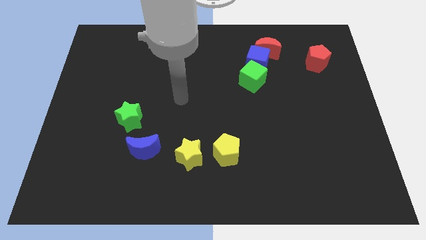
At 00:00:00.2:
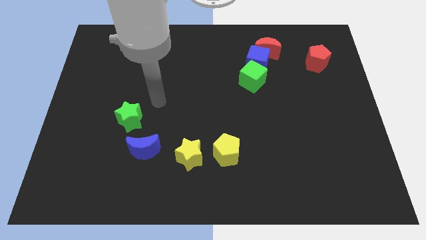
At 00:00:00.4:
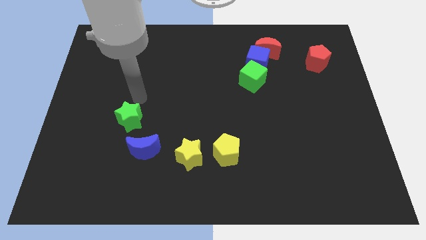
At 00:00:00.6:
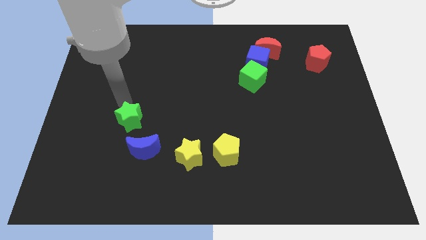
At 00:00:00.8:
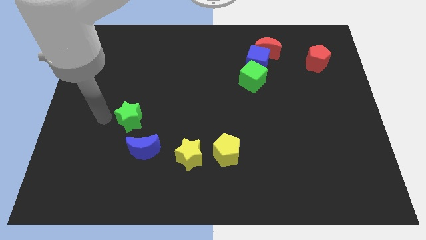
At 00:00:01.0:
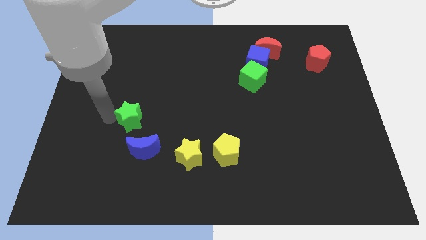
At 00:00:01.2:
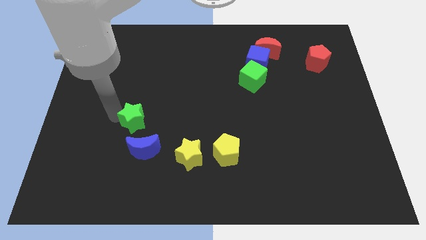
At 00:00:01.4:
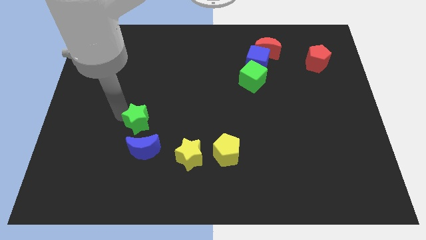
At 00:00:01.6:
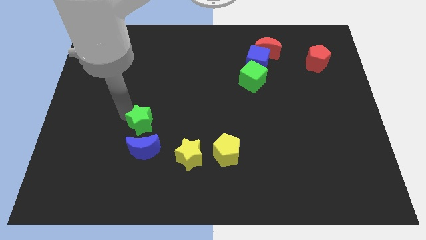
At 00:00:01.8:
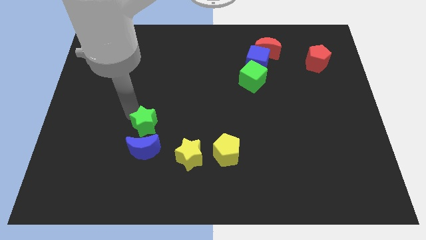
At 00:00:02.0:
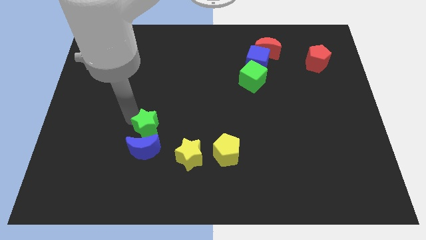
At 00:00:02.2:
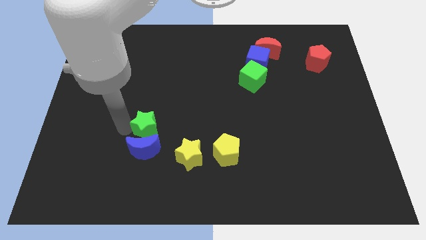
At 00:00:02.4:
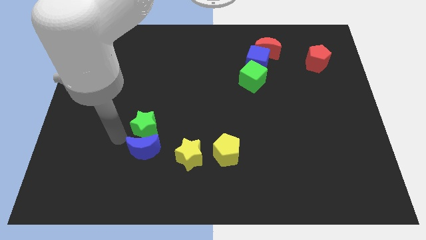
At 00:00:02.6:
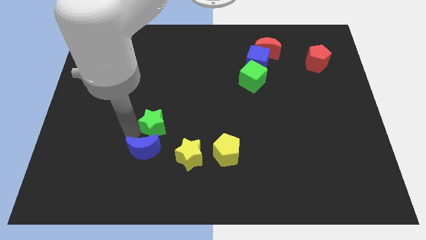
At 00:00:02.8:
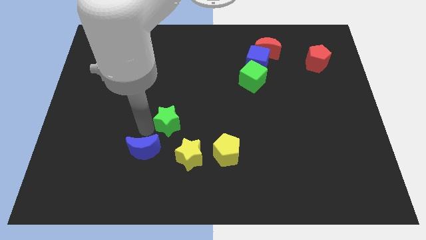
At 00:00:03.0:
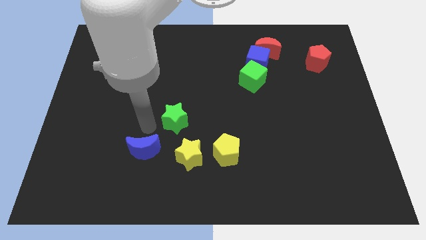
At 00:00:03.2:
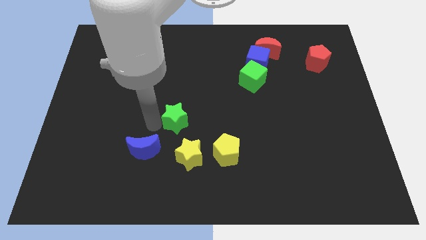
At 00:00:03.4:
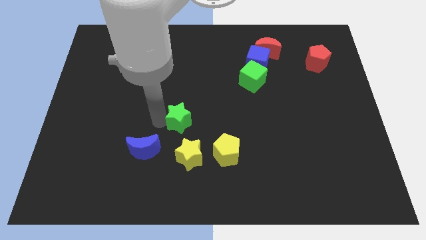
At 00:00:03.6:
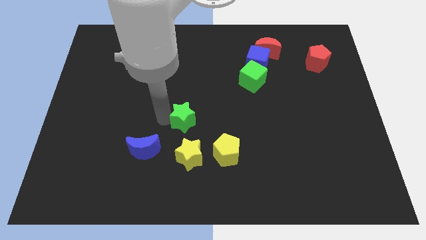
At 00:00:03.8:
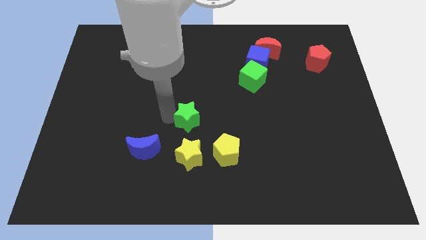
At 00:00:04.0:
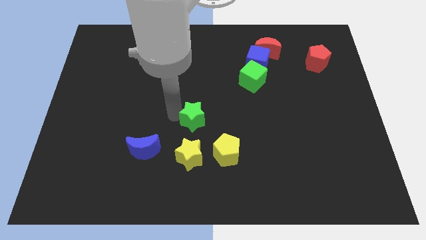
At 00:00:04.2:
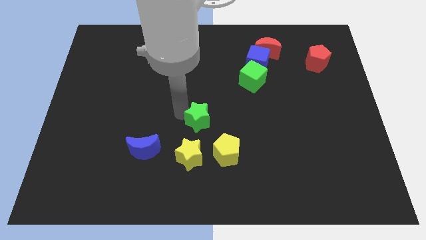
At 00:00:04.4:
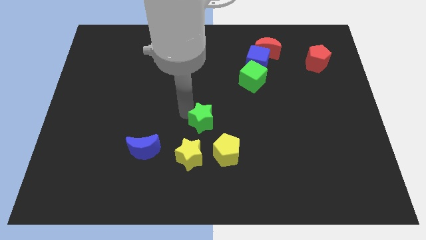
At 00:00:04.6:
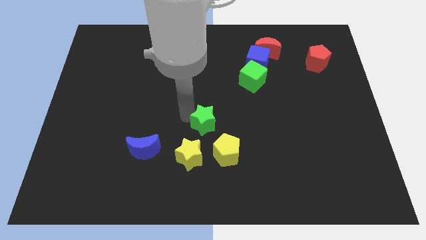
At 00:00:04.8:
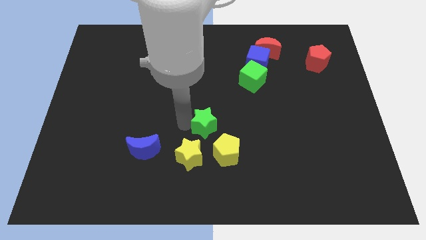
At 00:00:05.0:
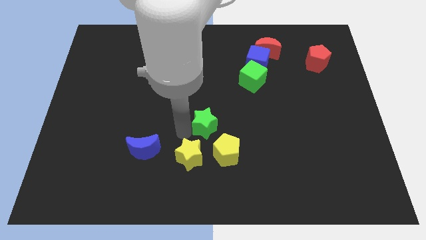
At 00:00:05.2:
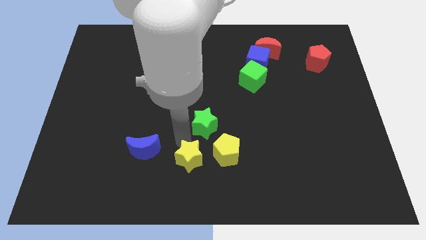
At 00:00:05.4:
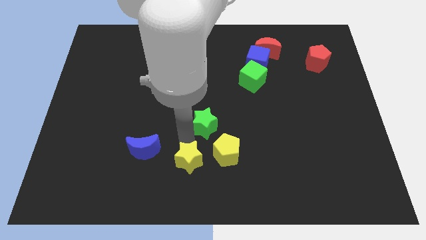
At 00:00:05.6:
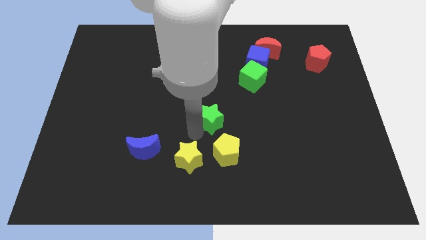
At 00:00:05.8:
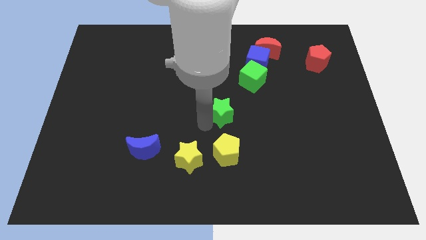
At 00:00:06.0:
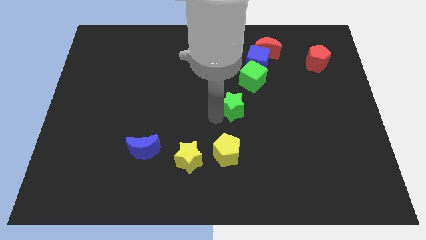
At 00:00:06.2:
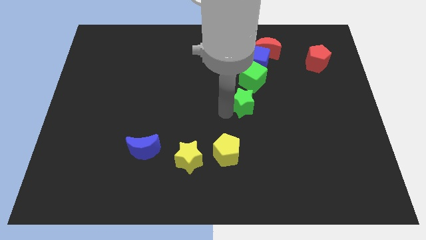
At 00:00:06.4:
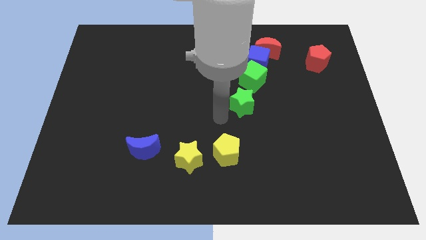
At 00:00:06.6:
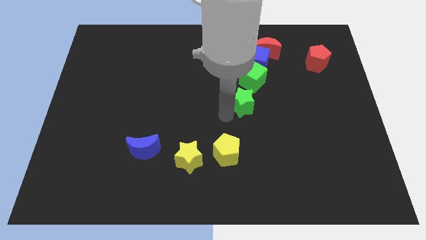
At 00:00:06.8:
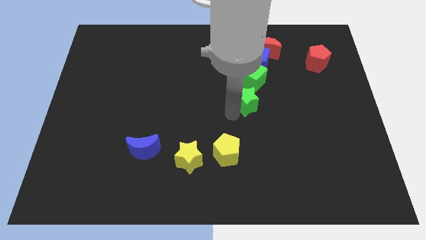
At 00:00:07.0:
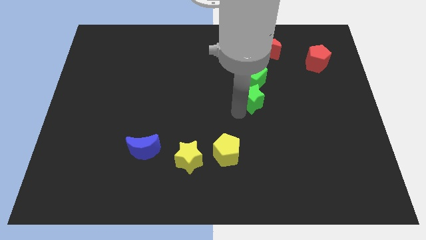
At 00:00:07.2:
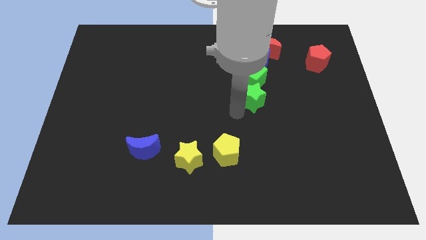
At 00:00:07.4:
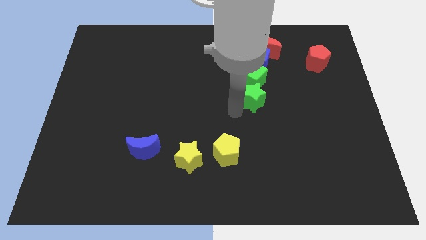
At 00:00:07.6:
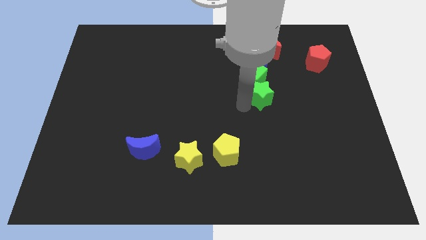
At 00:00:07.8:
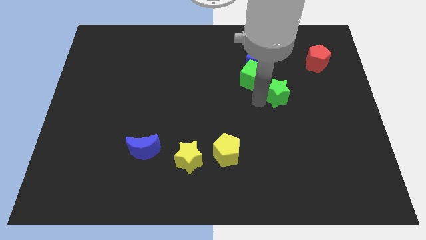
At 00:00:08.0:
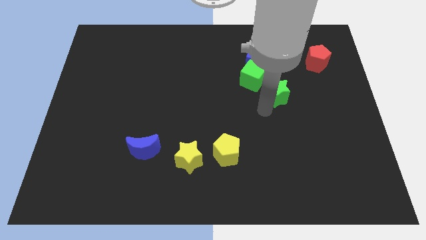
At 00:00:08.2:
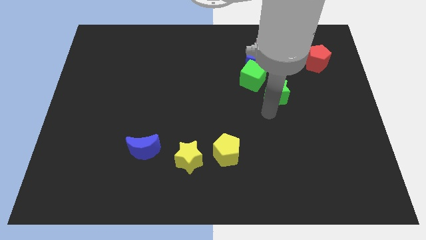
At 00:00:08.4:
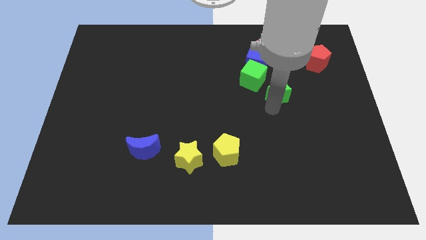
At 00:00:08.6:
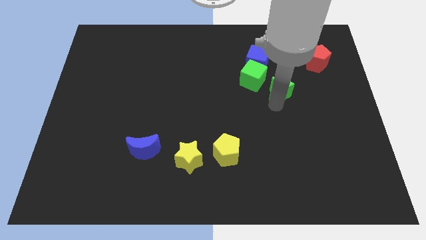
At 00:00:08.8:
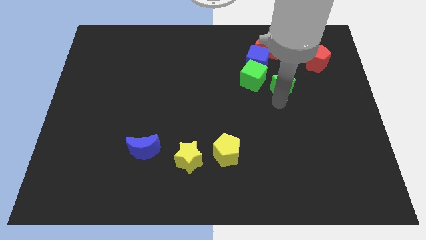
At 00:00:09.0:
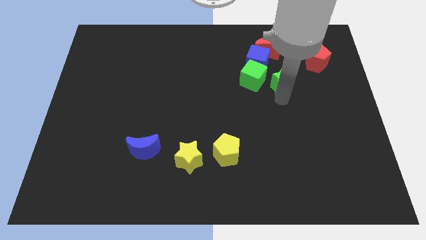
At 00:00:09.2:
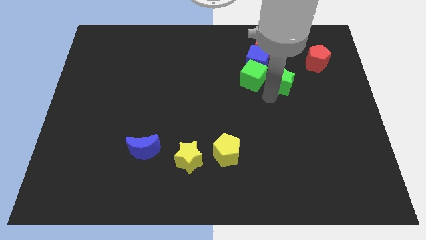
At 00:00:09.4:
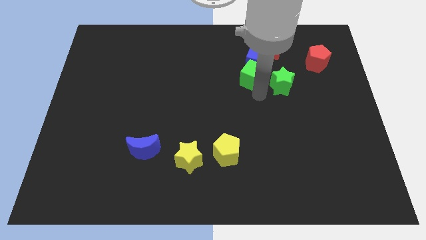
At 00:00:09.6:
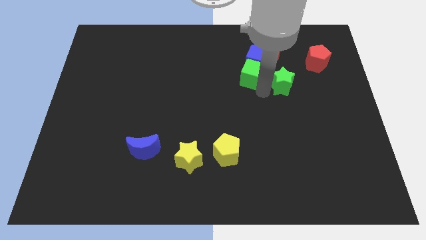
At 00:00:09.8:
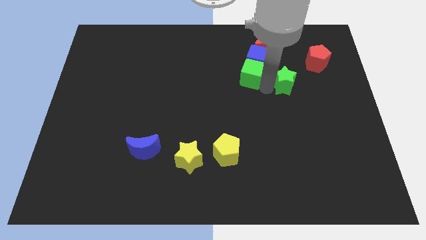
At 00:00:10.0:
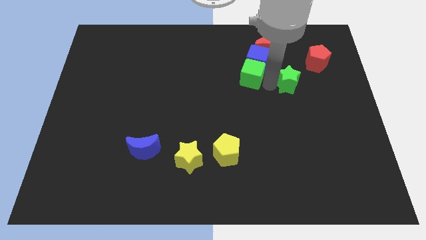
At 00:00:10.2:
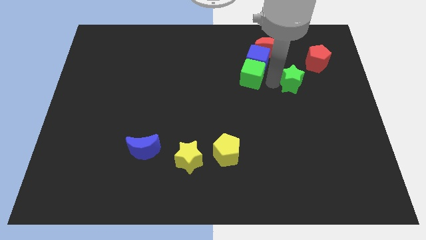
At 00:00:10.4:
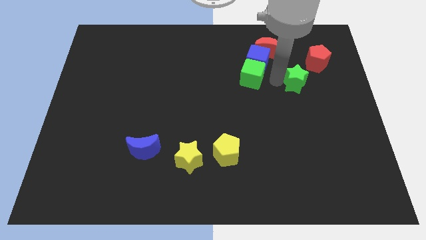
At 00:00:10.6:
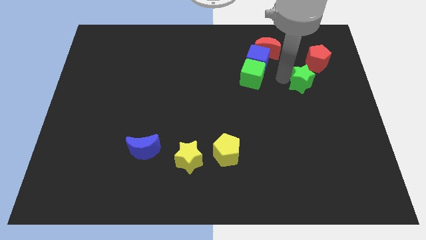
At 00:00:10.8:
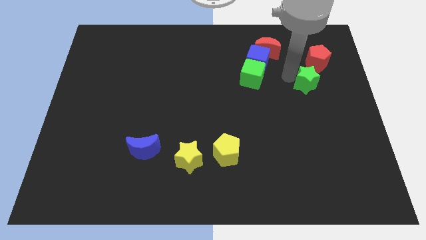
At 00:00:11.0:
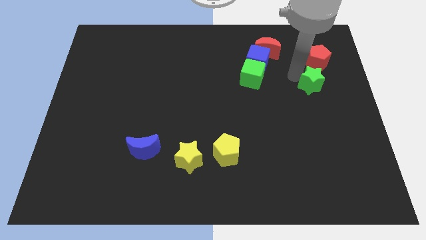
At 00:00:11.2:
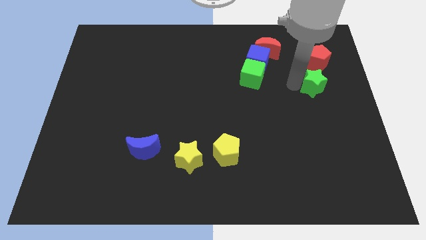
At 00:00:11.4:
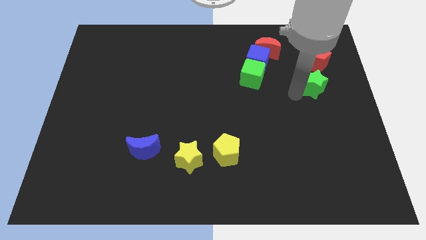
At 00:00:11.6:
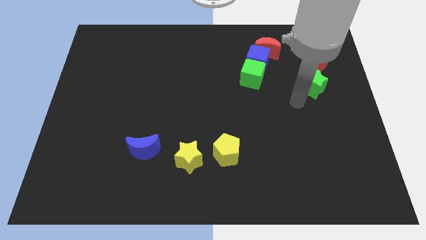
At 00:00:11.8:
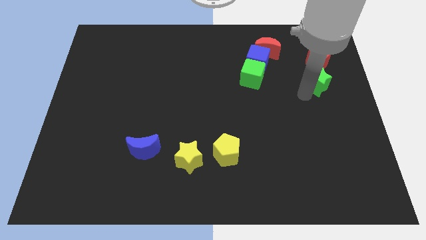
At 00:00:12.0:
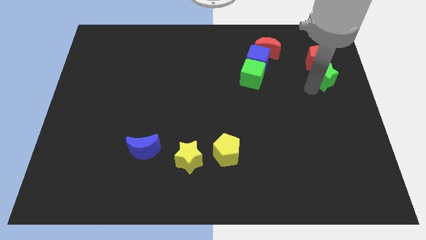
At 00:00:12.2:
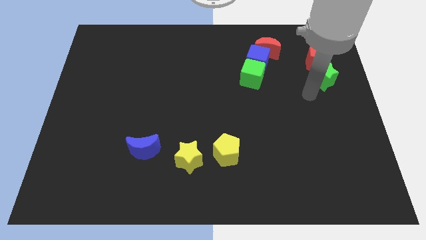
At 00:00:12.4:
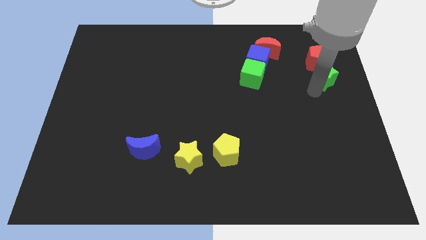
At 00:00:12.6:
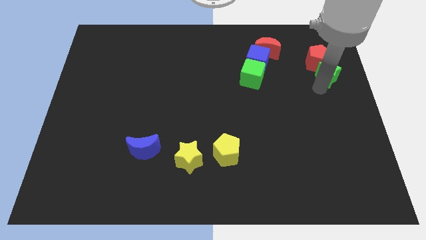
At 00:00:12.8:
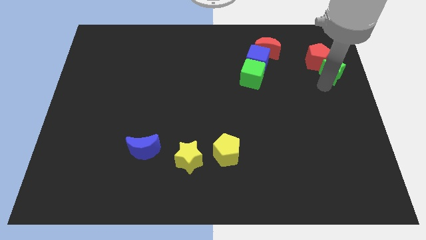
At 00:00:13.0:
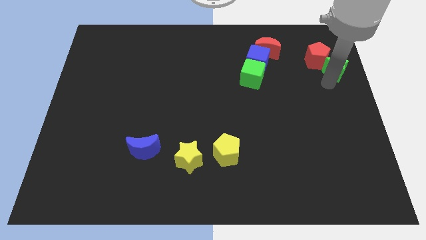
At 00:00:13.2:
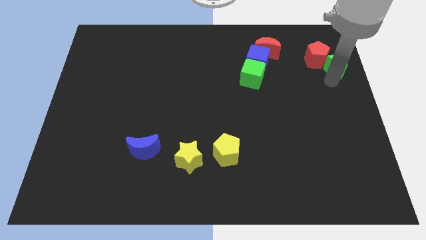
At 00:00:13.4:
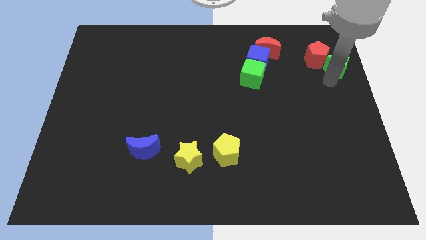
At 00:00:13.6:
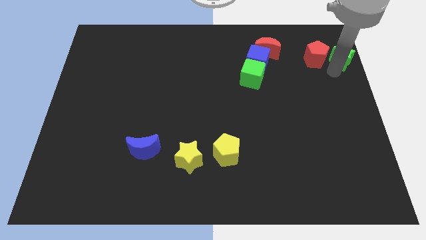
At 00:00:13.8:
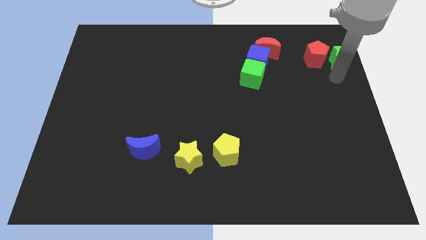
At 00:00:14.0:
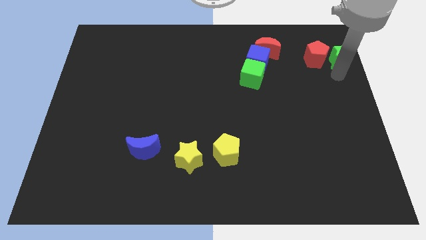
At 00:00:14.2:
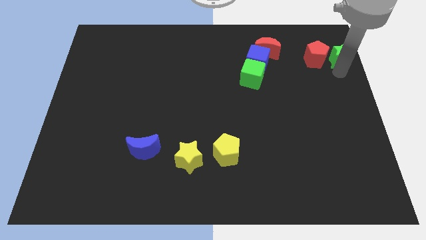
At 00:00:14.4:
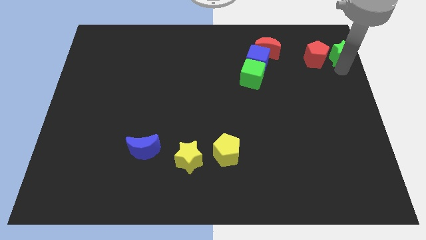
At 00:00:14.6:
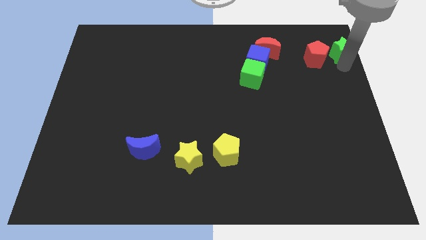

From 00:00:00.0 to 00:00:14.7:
put the green star to the upper right corner
